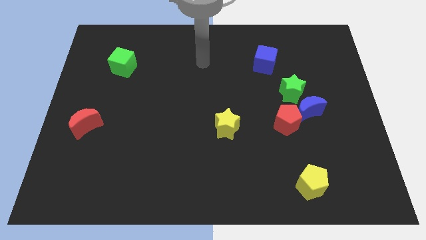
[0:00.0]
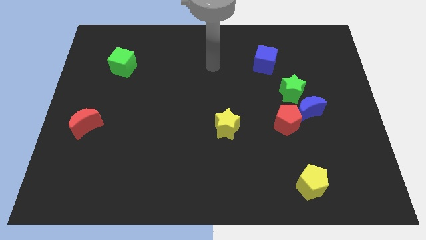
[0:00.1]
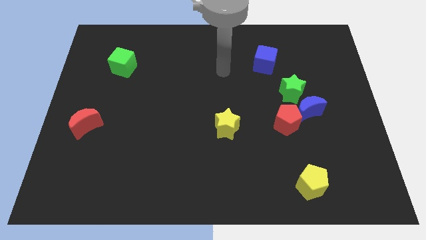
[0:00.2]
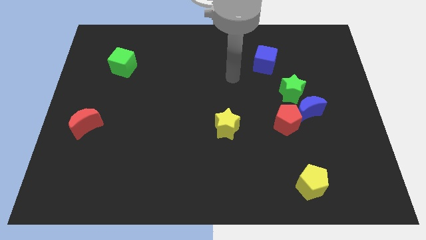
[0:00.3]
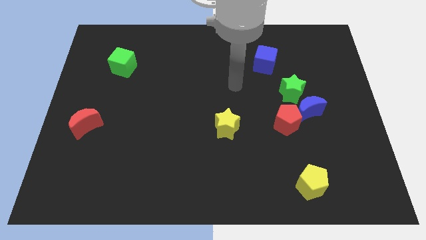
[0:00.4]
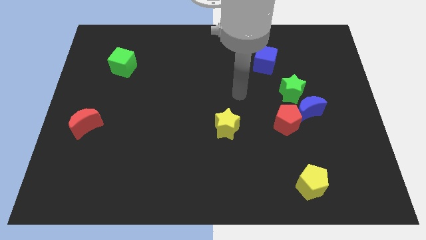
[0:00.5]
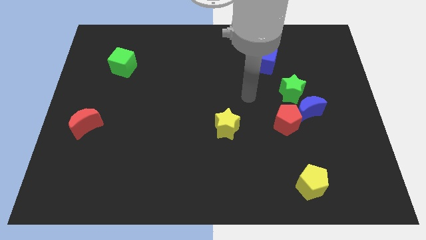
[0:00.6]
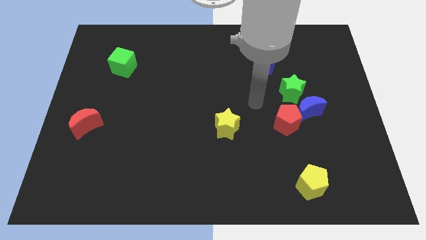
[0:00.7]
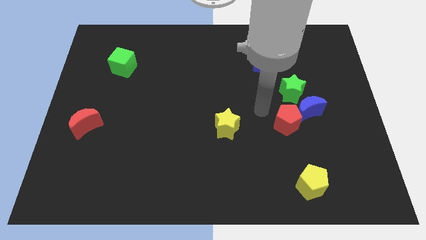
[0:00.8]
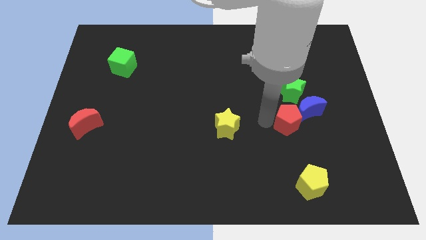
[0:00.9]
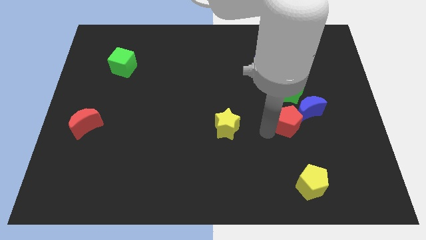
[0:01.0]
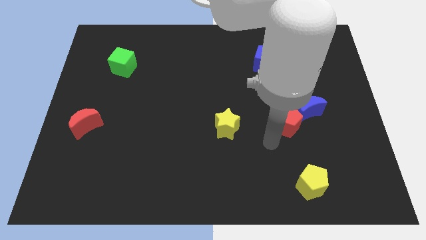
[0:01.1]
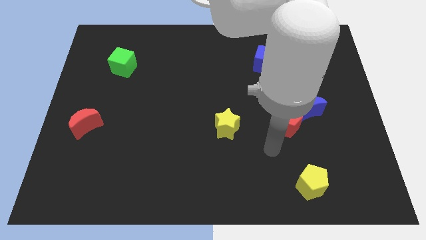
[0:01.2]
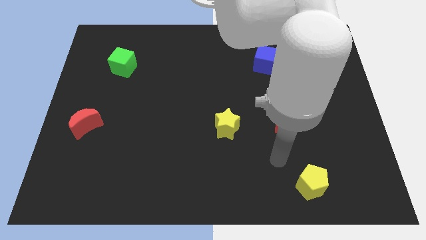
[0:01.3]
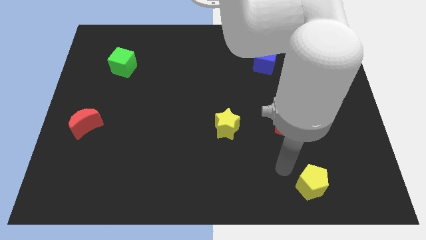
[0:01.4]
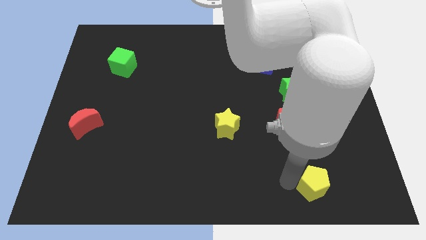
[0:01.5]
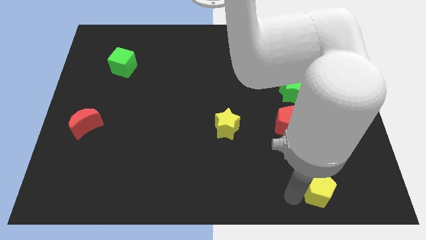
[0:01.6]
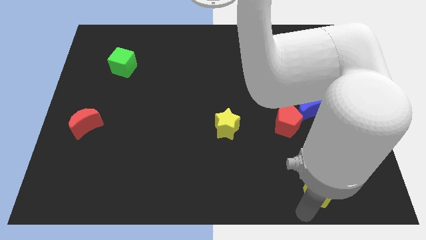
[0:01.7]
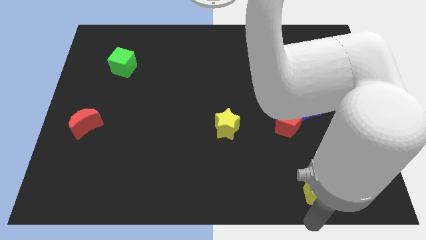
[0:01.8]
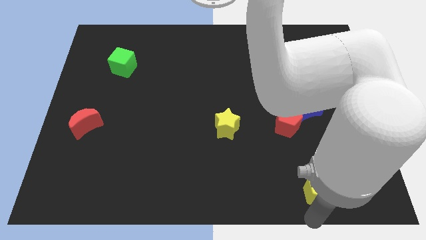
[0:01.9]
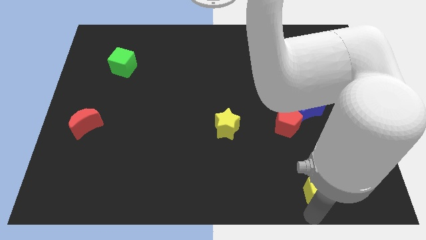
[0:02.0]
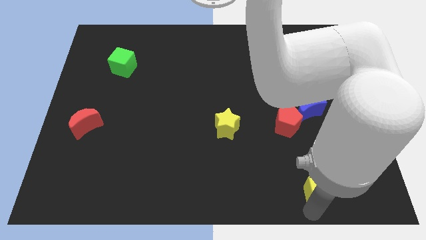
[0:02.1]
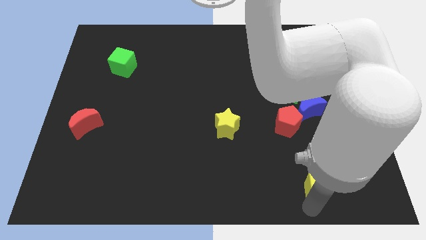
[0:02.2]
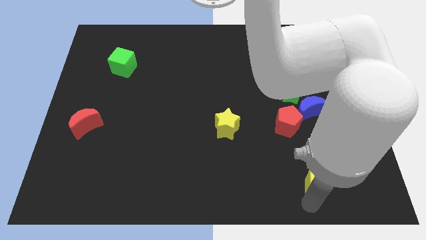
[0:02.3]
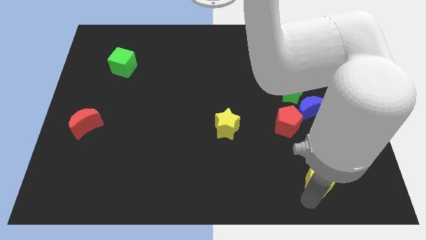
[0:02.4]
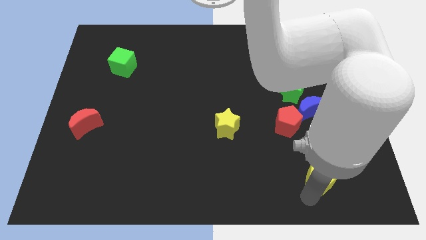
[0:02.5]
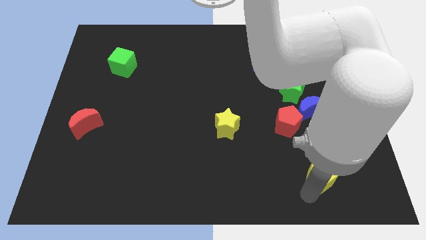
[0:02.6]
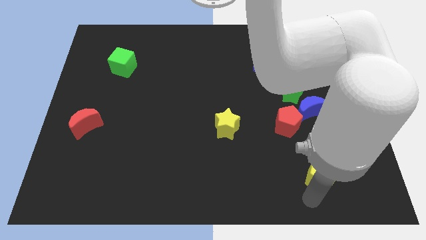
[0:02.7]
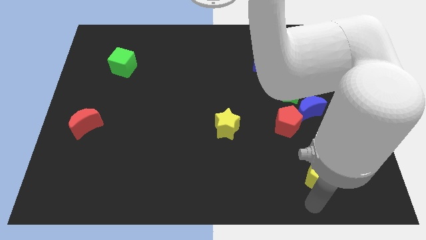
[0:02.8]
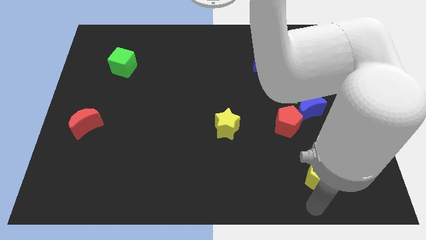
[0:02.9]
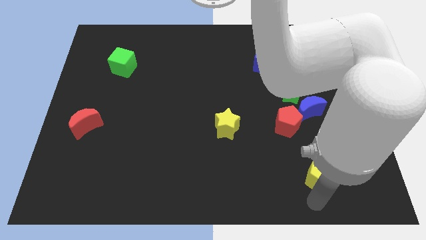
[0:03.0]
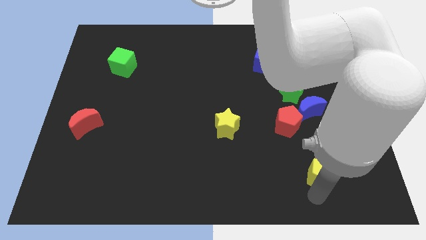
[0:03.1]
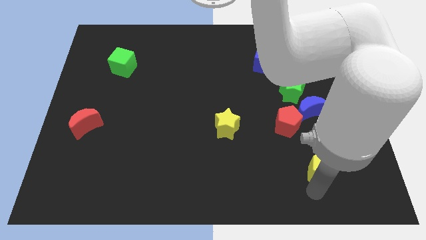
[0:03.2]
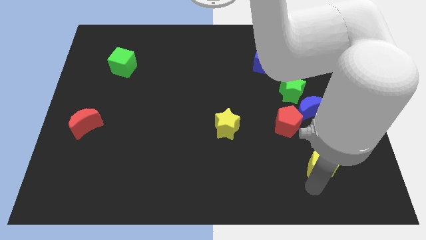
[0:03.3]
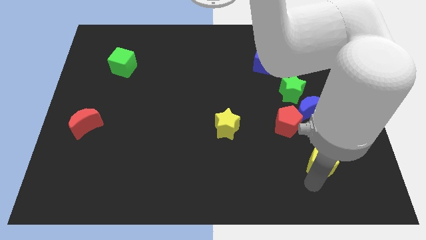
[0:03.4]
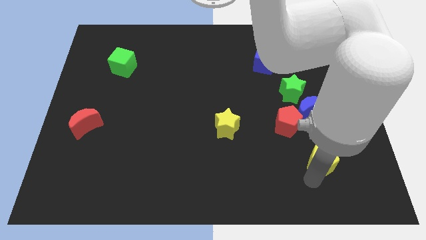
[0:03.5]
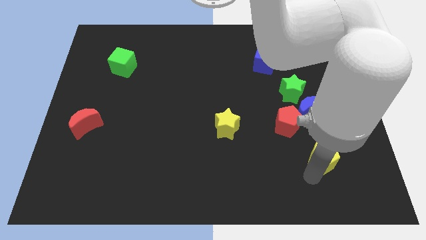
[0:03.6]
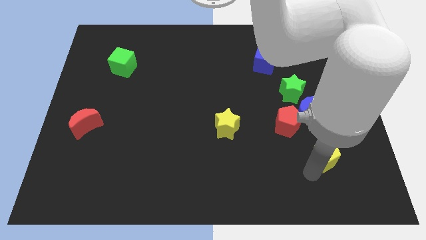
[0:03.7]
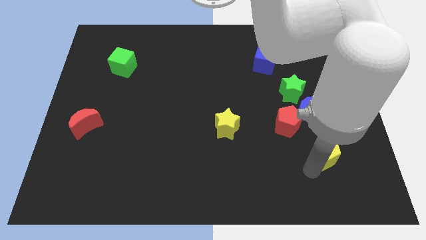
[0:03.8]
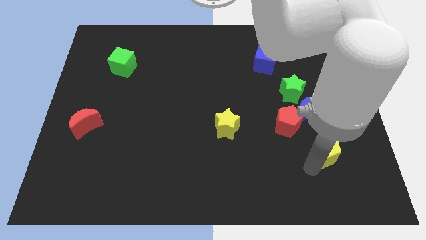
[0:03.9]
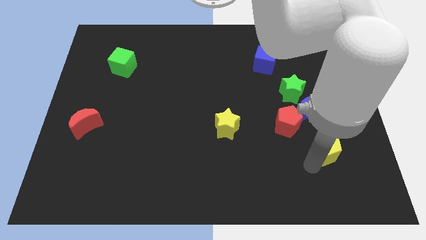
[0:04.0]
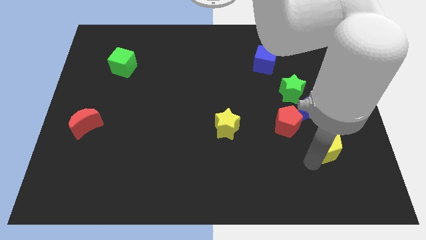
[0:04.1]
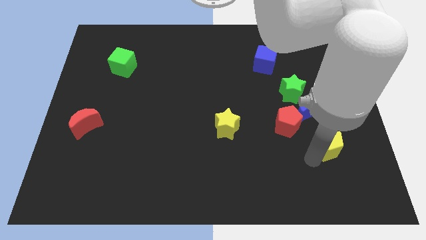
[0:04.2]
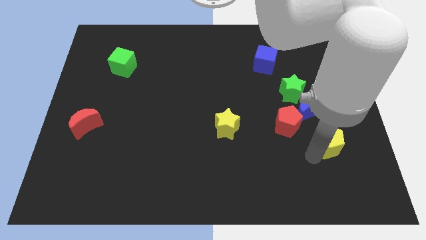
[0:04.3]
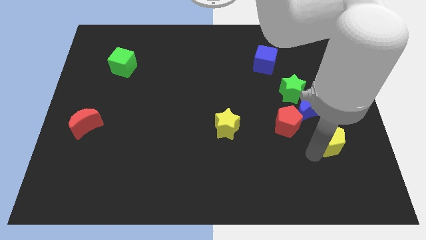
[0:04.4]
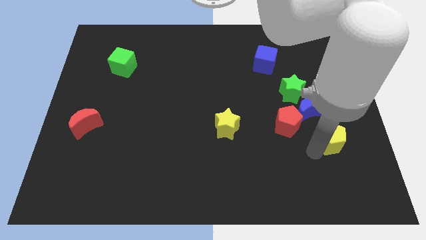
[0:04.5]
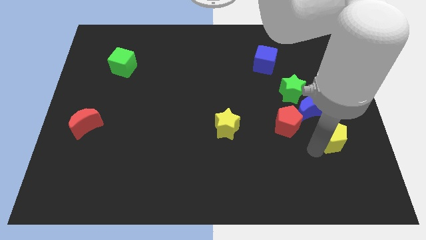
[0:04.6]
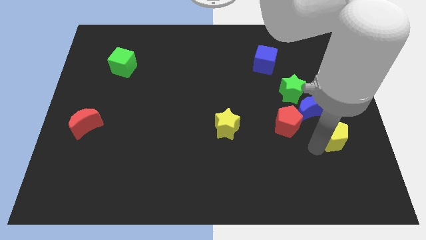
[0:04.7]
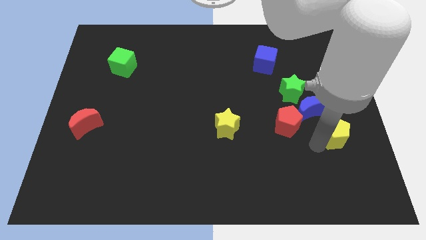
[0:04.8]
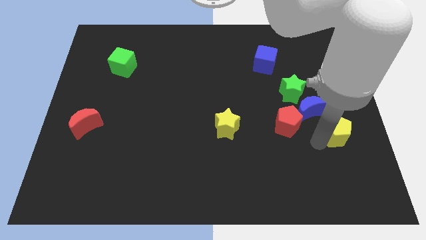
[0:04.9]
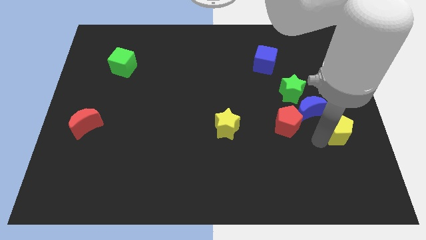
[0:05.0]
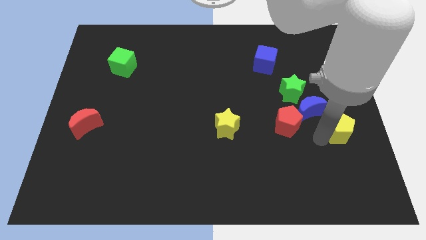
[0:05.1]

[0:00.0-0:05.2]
slide the yellow pentagon to the center right

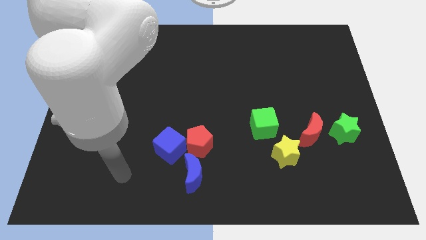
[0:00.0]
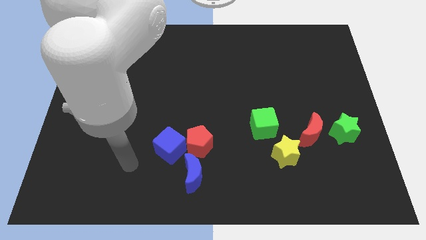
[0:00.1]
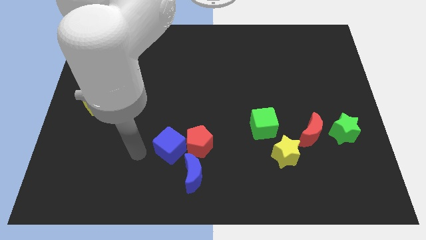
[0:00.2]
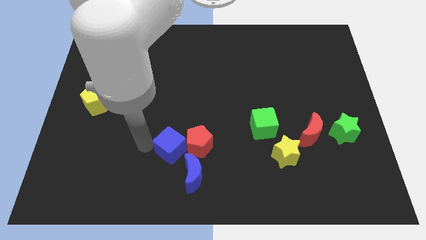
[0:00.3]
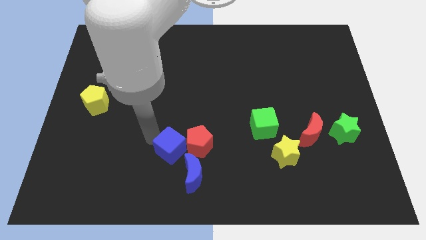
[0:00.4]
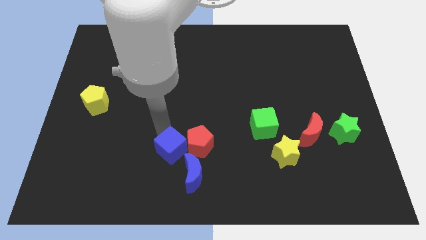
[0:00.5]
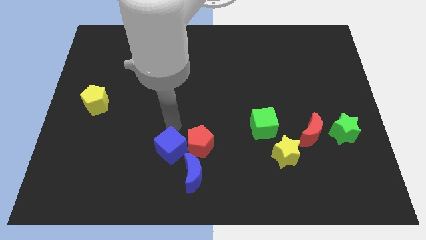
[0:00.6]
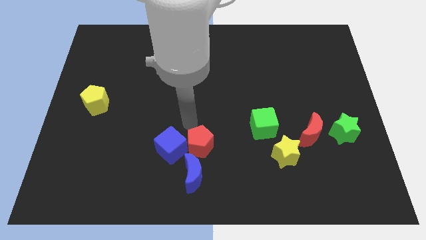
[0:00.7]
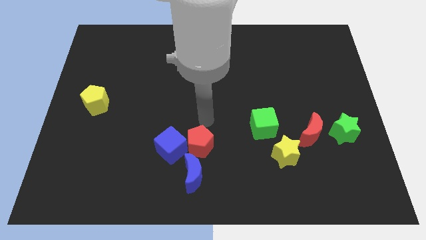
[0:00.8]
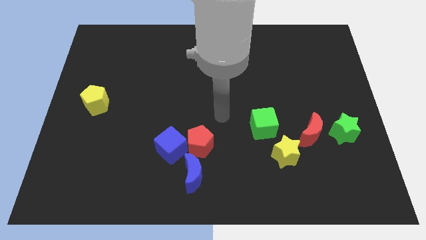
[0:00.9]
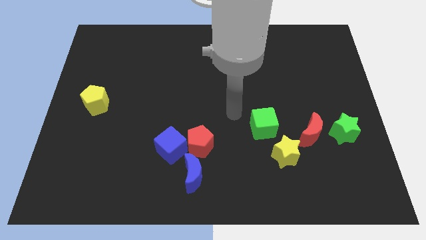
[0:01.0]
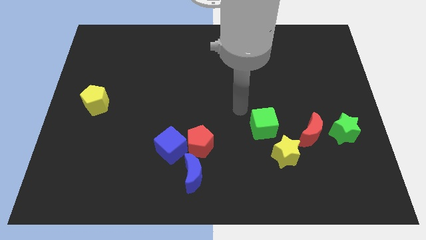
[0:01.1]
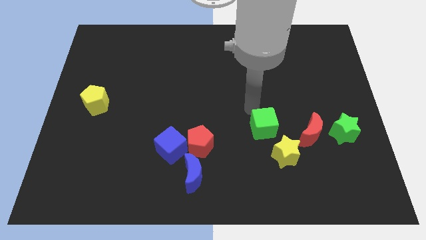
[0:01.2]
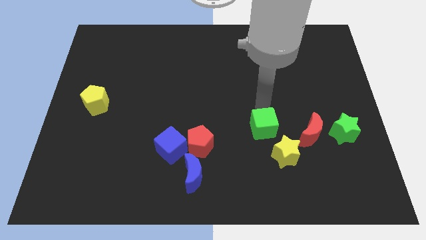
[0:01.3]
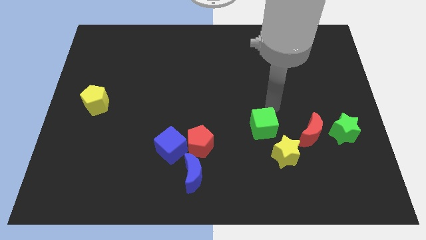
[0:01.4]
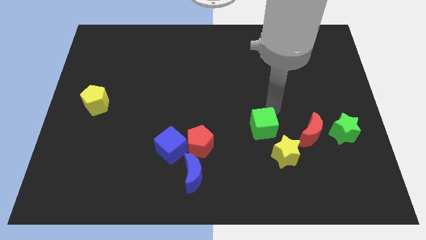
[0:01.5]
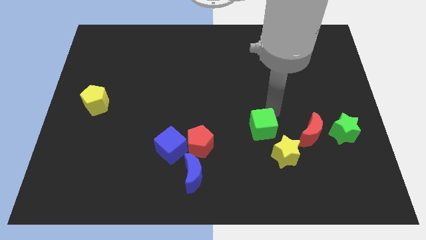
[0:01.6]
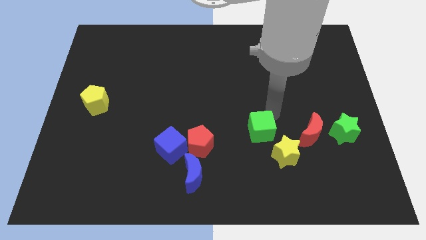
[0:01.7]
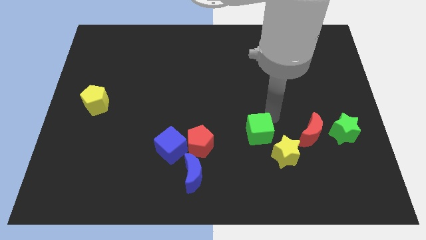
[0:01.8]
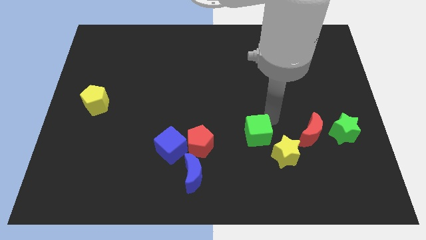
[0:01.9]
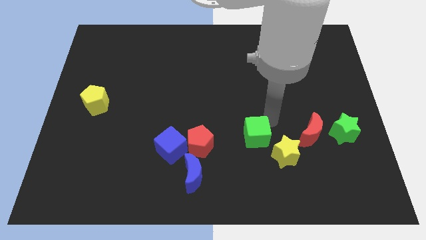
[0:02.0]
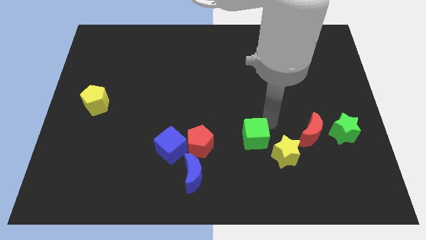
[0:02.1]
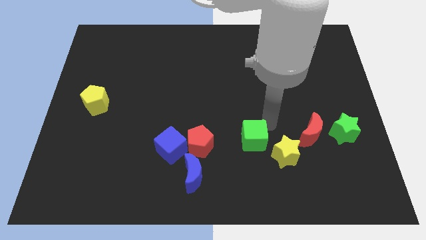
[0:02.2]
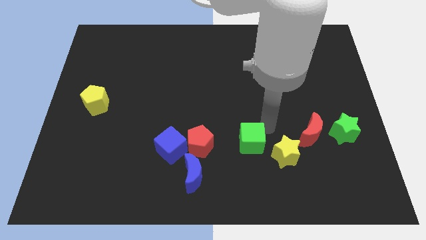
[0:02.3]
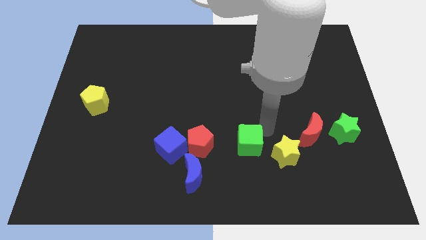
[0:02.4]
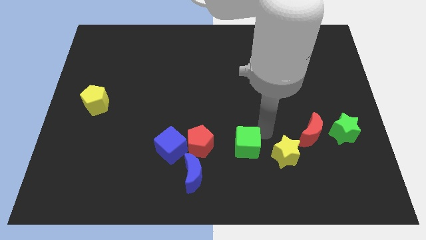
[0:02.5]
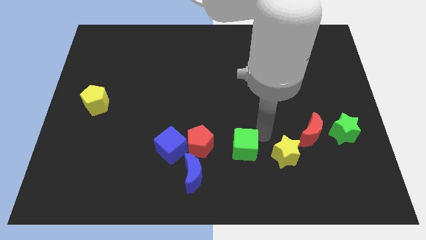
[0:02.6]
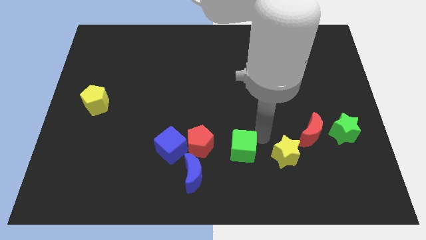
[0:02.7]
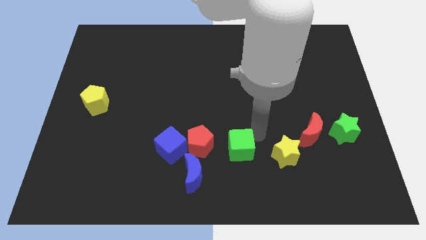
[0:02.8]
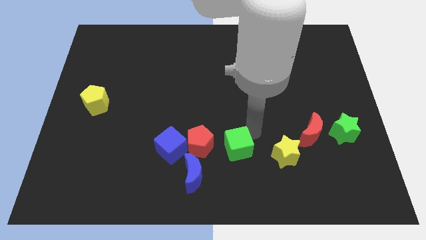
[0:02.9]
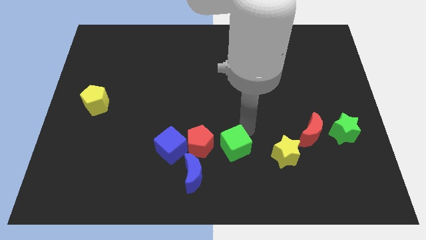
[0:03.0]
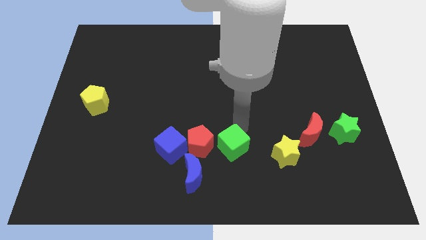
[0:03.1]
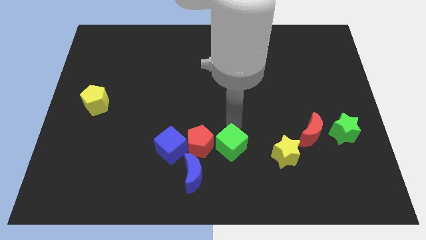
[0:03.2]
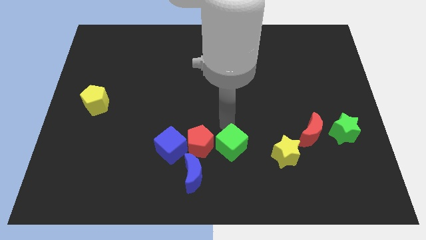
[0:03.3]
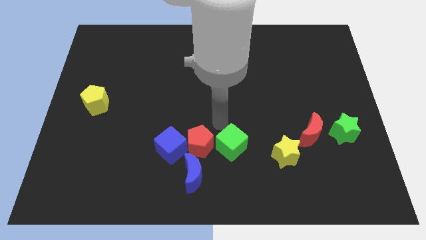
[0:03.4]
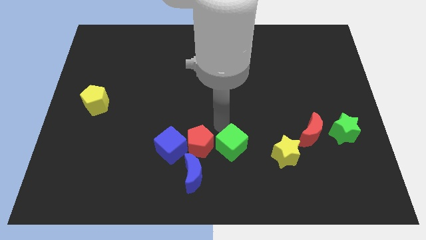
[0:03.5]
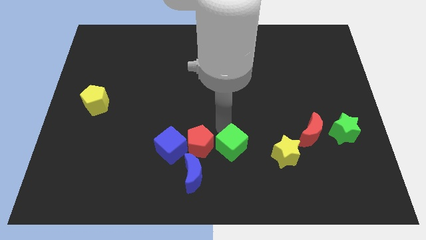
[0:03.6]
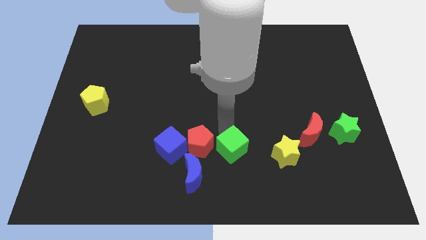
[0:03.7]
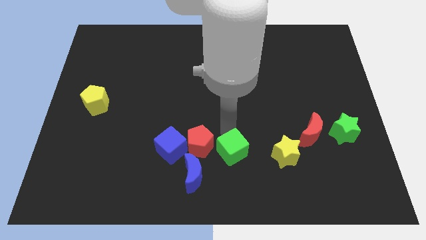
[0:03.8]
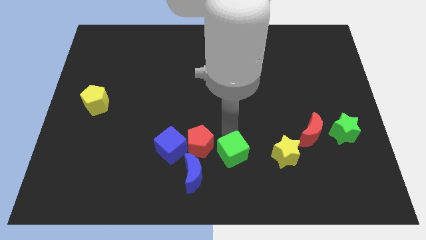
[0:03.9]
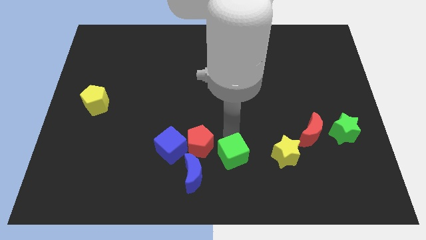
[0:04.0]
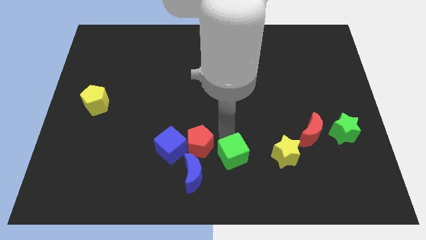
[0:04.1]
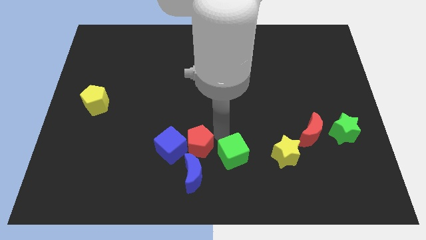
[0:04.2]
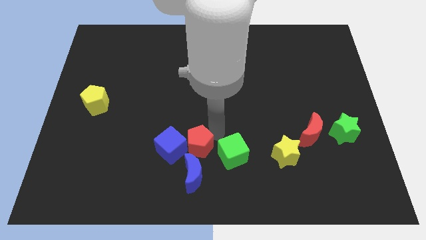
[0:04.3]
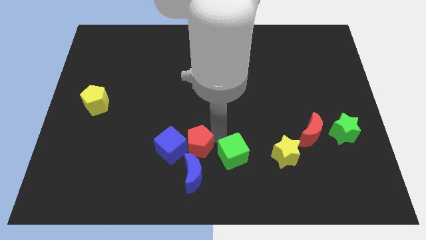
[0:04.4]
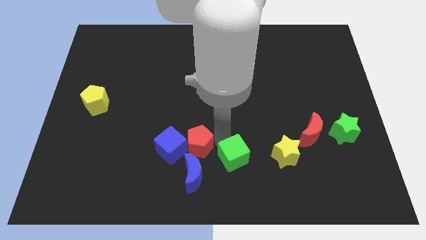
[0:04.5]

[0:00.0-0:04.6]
push the green cube to the bottom side
